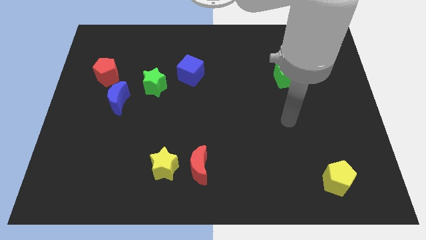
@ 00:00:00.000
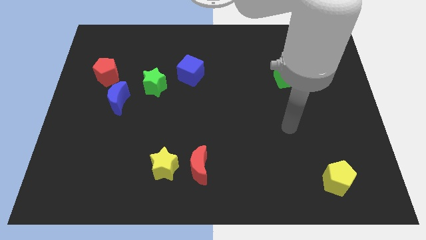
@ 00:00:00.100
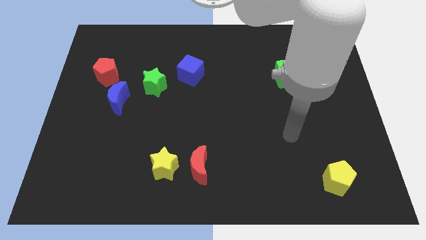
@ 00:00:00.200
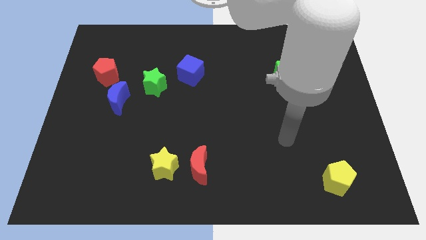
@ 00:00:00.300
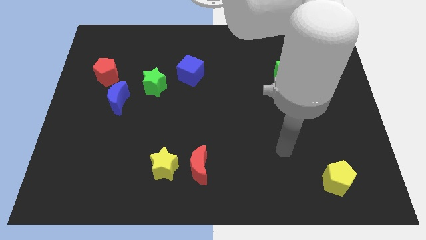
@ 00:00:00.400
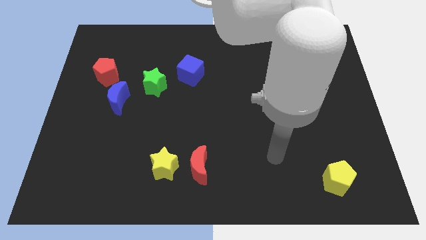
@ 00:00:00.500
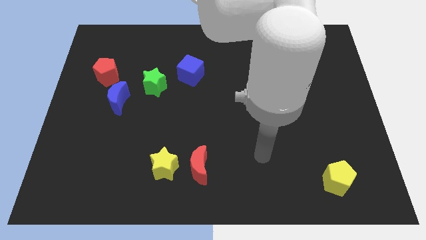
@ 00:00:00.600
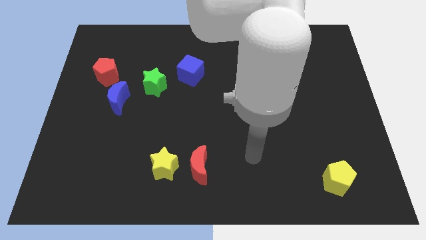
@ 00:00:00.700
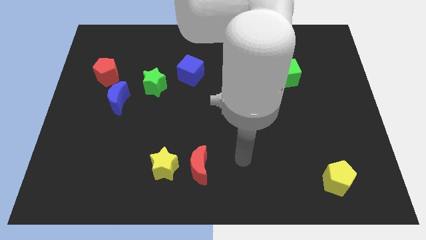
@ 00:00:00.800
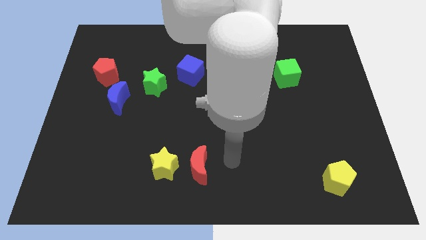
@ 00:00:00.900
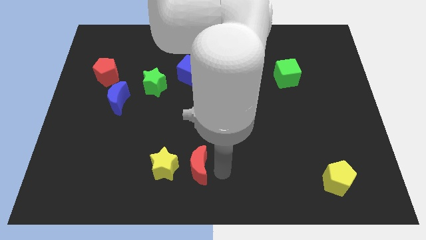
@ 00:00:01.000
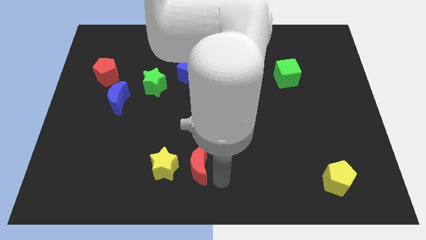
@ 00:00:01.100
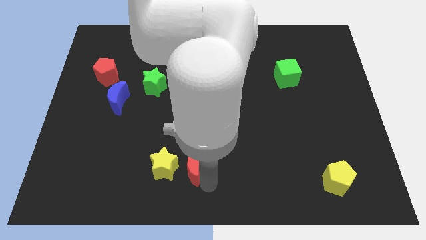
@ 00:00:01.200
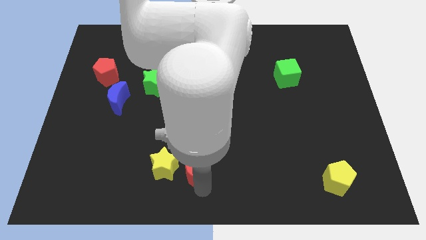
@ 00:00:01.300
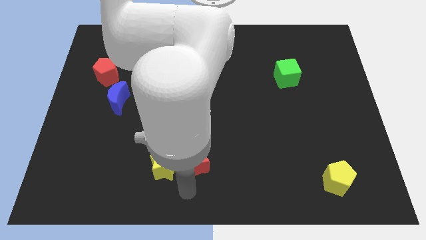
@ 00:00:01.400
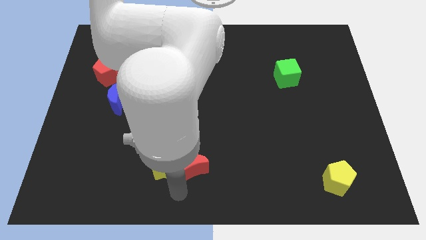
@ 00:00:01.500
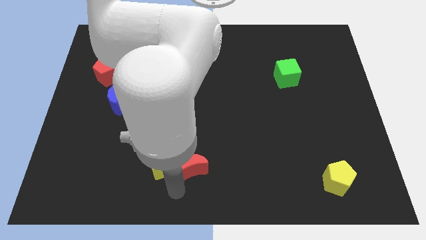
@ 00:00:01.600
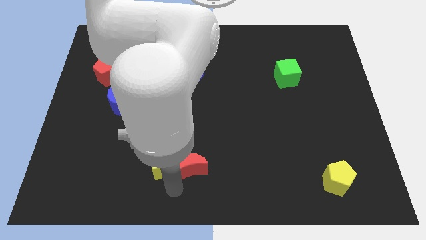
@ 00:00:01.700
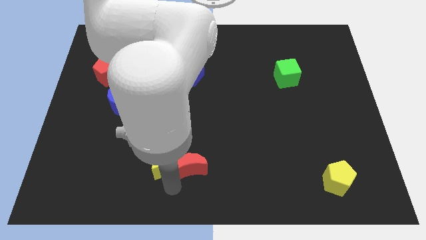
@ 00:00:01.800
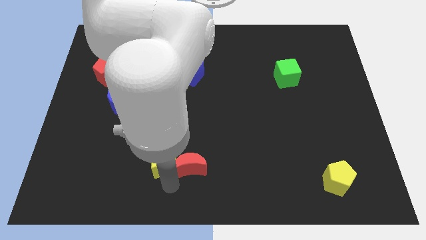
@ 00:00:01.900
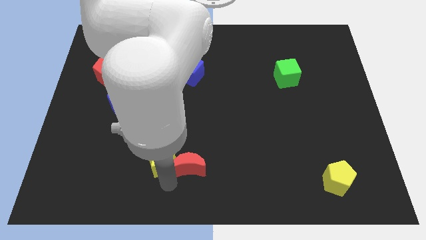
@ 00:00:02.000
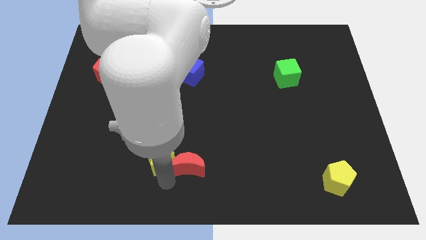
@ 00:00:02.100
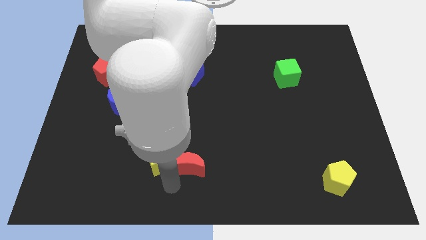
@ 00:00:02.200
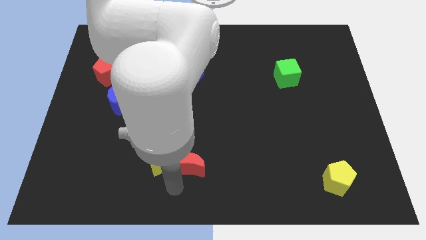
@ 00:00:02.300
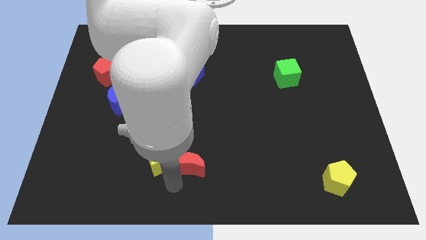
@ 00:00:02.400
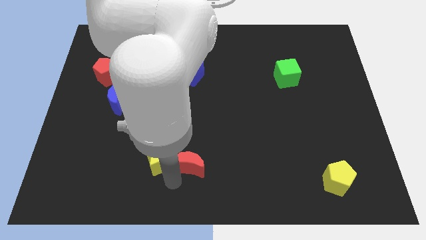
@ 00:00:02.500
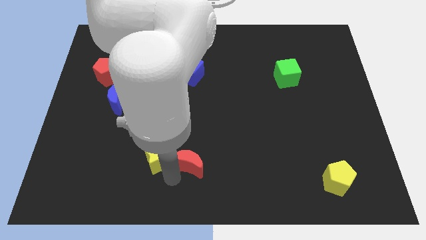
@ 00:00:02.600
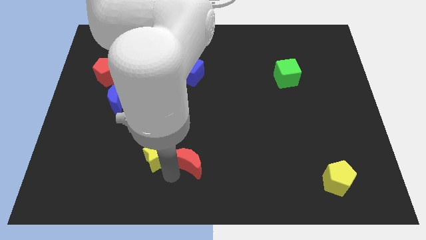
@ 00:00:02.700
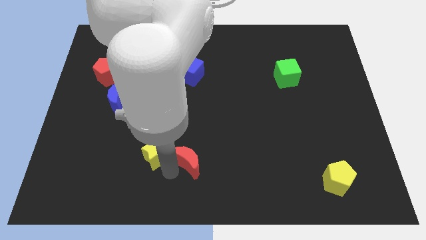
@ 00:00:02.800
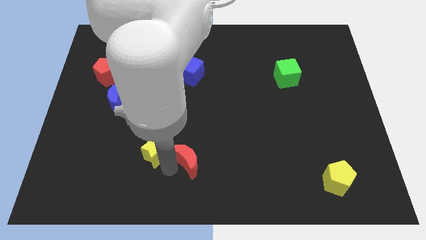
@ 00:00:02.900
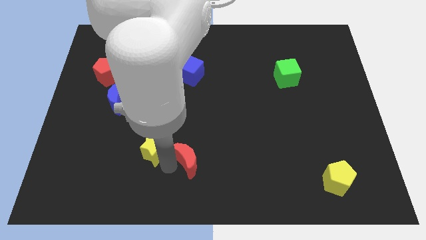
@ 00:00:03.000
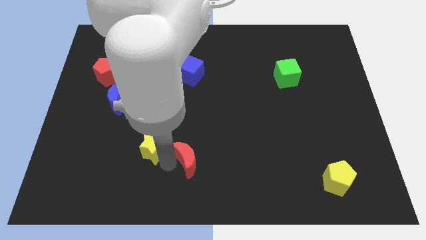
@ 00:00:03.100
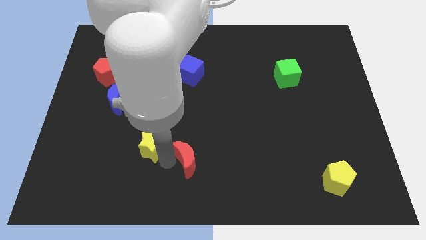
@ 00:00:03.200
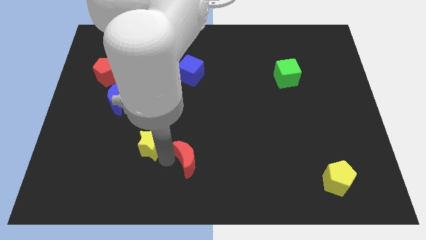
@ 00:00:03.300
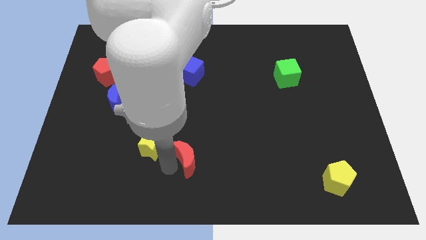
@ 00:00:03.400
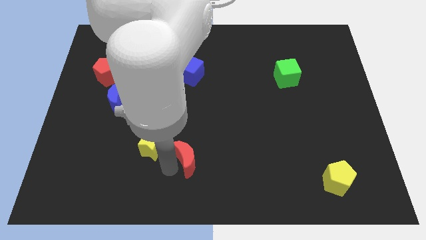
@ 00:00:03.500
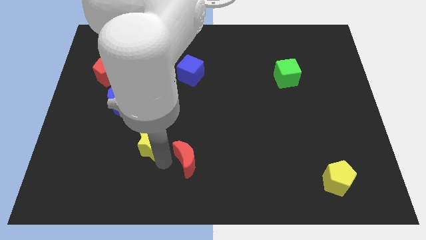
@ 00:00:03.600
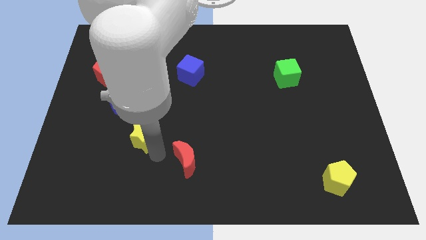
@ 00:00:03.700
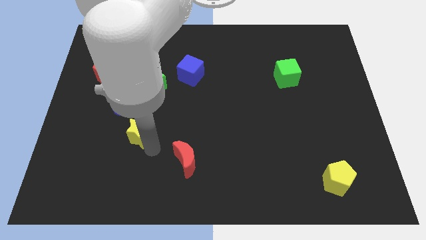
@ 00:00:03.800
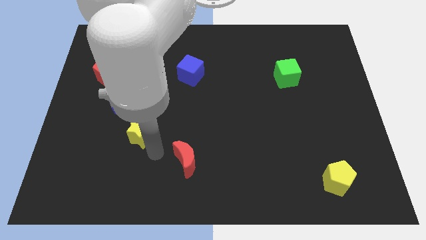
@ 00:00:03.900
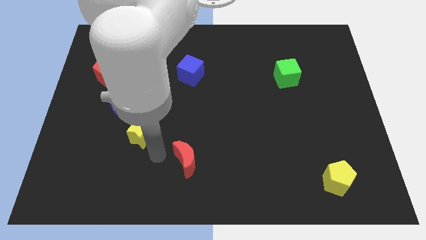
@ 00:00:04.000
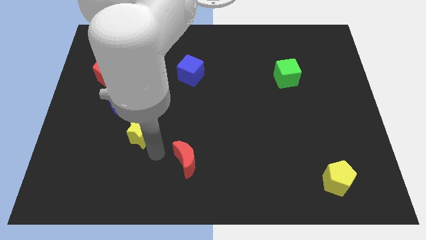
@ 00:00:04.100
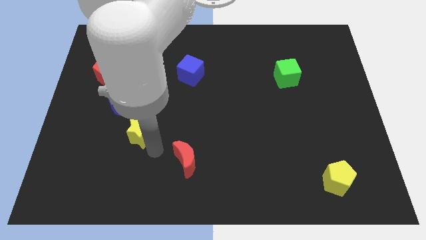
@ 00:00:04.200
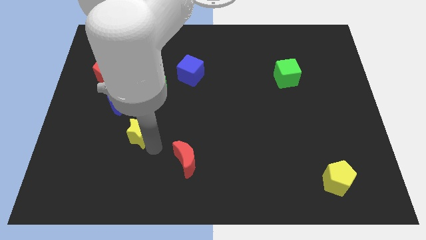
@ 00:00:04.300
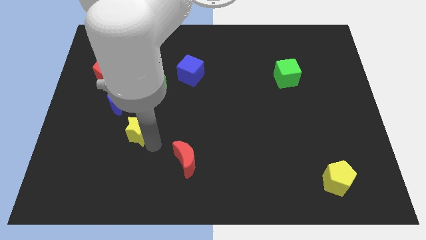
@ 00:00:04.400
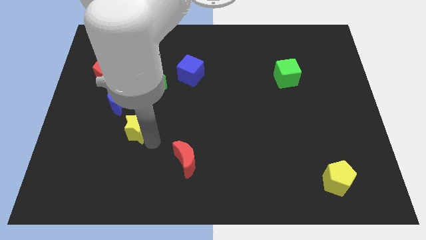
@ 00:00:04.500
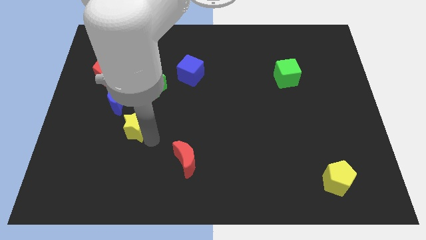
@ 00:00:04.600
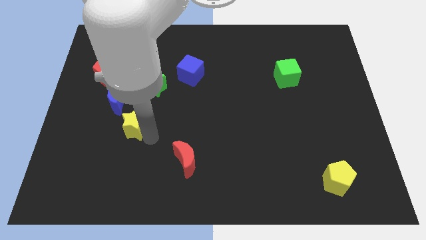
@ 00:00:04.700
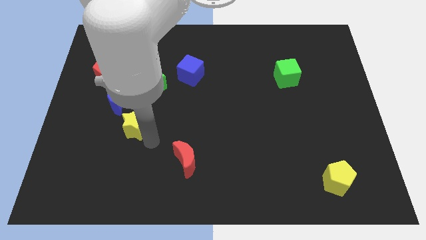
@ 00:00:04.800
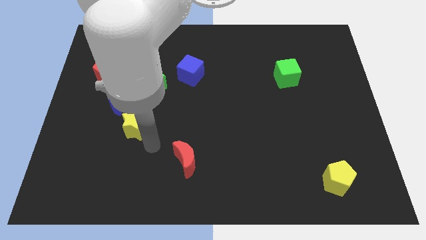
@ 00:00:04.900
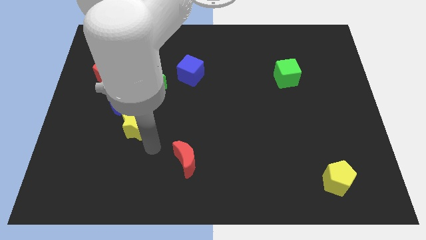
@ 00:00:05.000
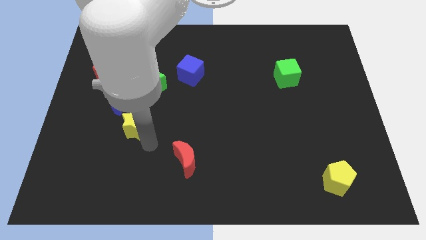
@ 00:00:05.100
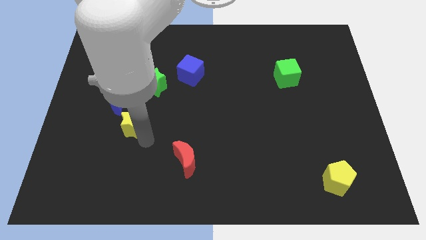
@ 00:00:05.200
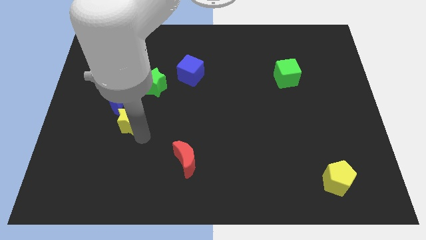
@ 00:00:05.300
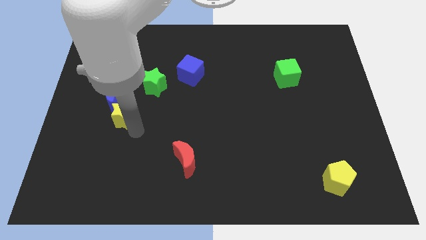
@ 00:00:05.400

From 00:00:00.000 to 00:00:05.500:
put the yellow star towards the blue moon

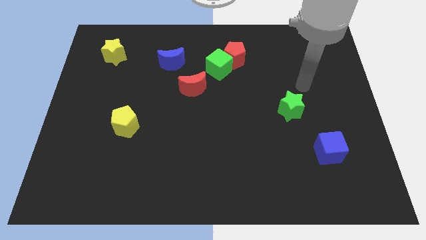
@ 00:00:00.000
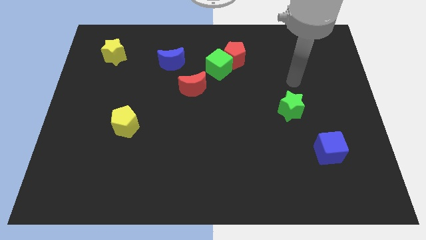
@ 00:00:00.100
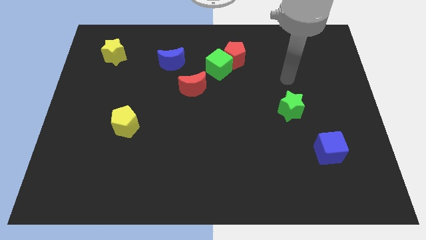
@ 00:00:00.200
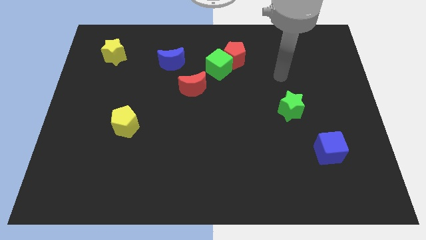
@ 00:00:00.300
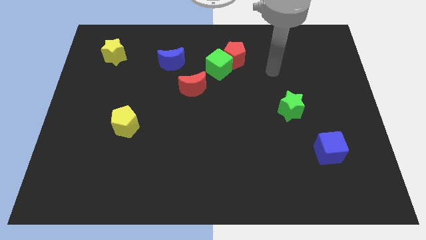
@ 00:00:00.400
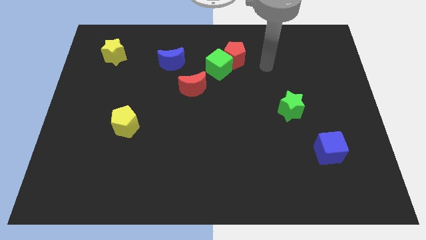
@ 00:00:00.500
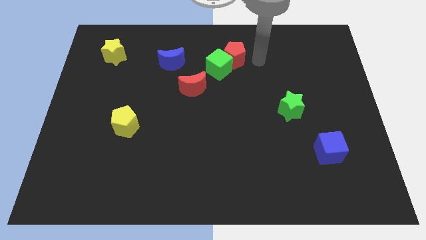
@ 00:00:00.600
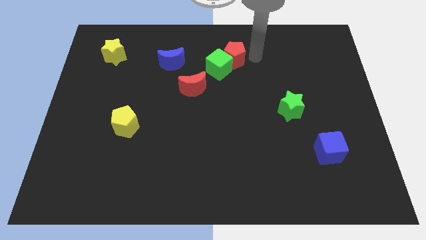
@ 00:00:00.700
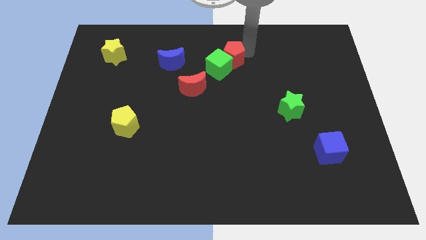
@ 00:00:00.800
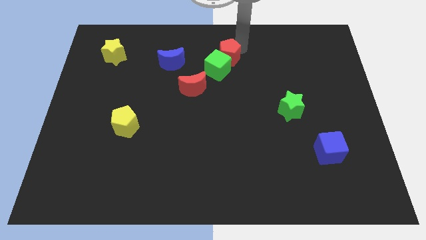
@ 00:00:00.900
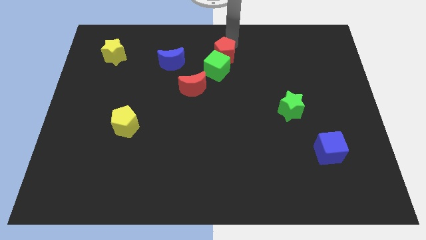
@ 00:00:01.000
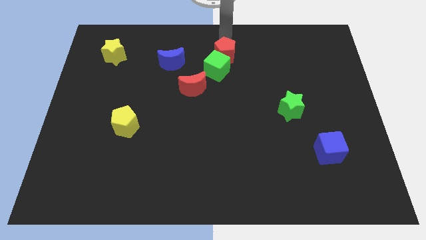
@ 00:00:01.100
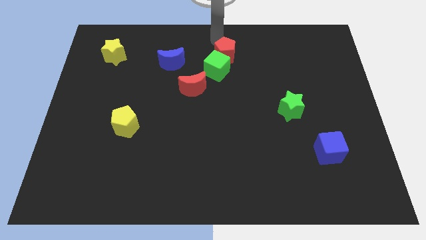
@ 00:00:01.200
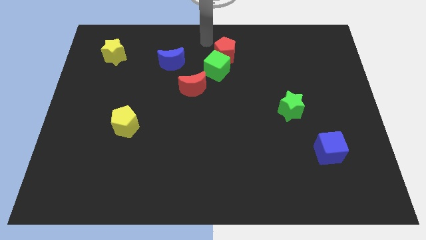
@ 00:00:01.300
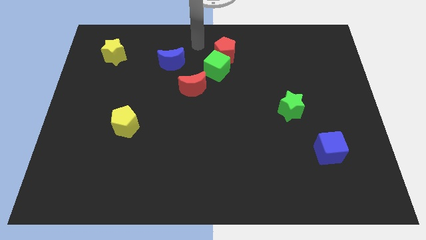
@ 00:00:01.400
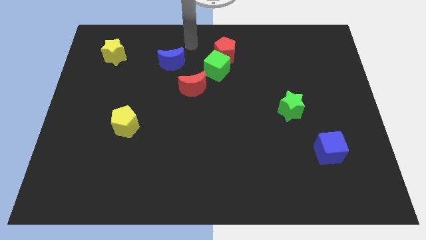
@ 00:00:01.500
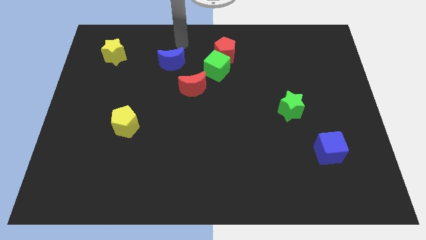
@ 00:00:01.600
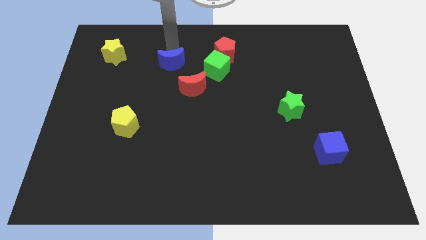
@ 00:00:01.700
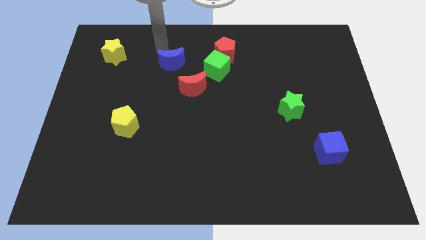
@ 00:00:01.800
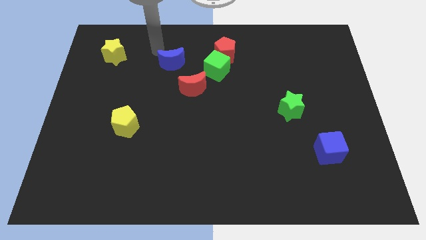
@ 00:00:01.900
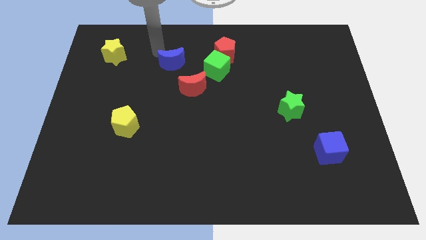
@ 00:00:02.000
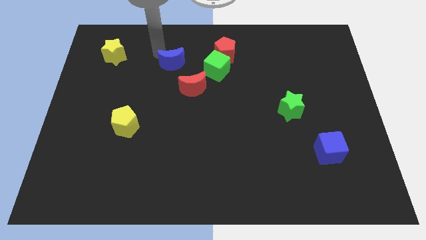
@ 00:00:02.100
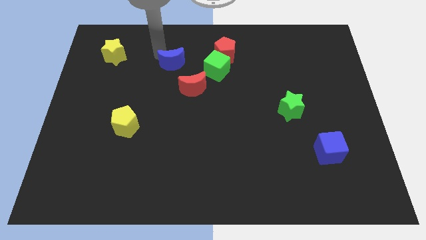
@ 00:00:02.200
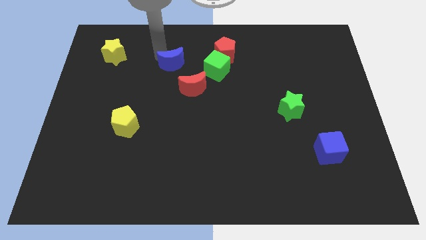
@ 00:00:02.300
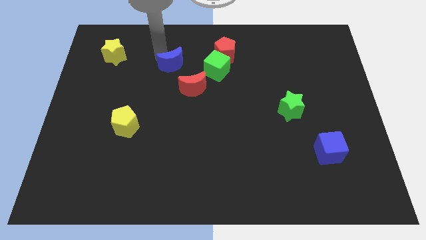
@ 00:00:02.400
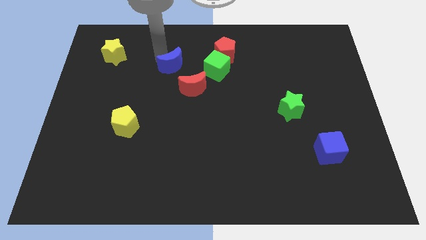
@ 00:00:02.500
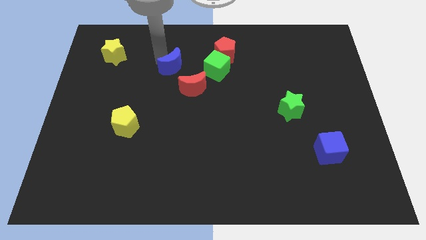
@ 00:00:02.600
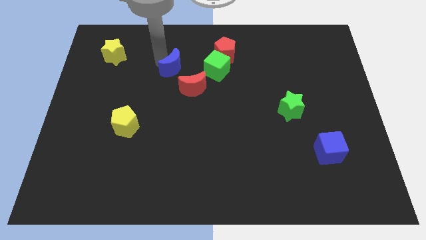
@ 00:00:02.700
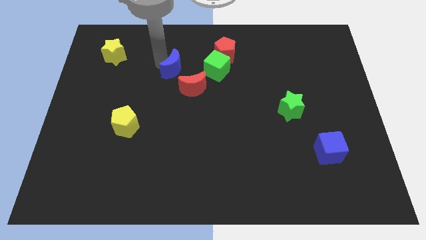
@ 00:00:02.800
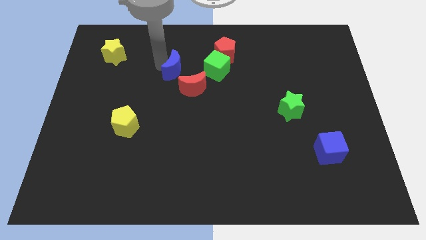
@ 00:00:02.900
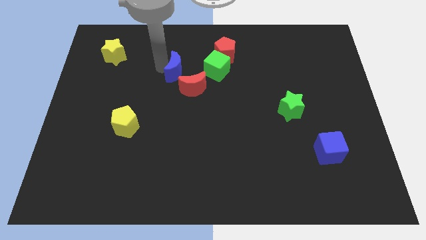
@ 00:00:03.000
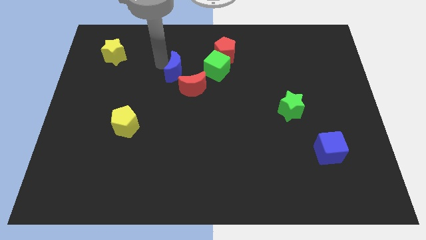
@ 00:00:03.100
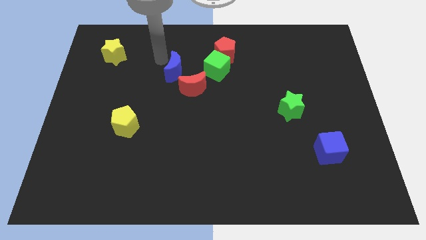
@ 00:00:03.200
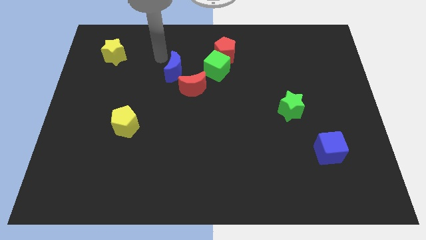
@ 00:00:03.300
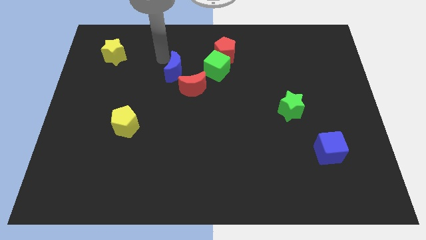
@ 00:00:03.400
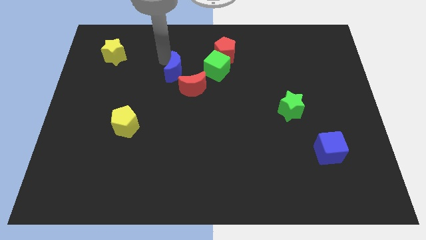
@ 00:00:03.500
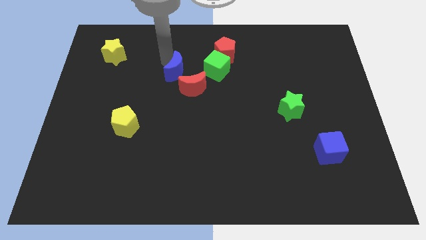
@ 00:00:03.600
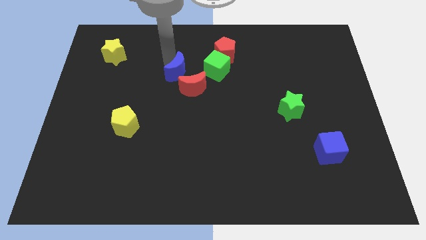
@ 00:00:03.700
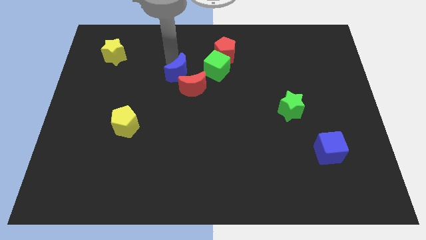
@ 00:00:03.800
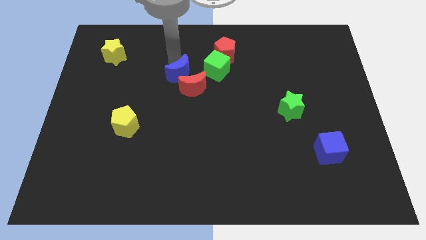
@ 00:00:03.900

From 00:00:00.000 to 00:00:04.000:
push the blue moon next to the red moon
